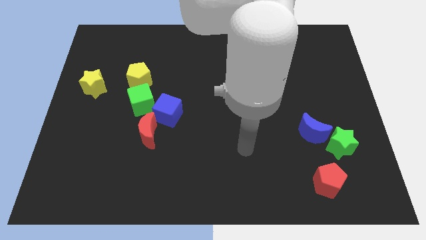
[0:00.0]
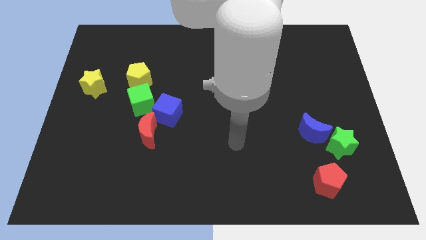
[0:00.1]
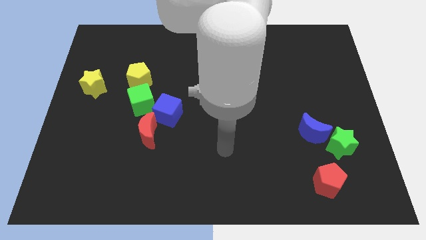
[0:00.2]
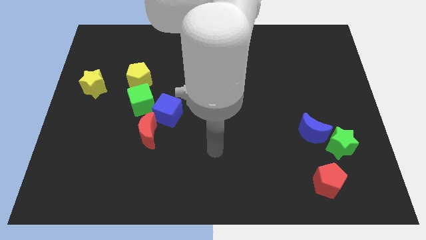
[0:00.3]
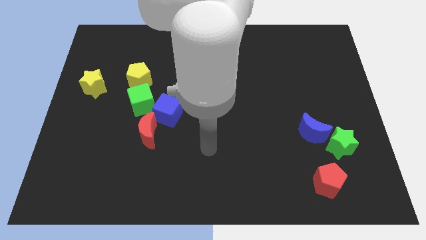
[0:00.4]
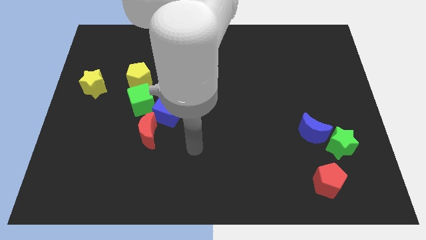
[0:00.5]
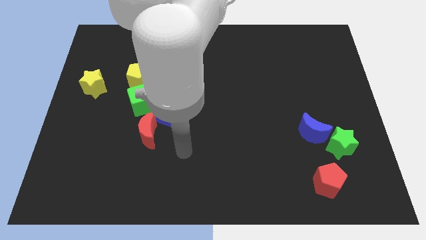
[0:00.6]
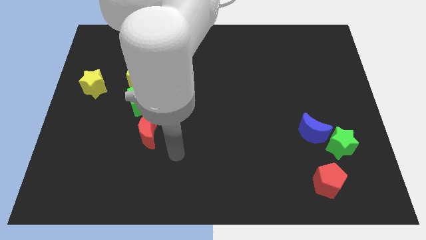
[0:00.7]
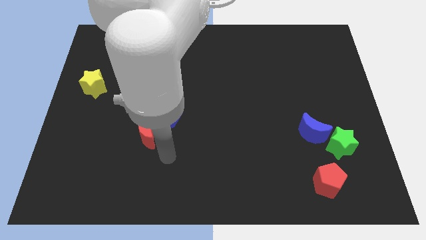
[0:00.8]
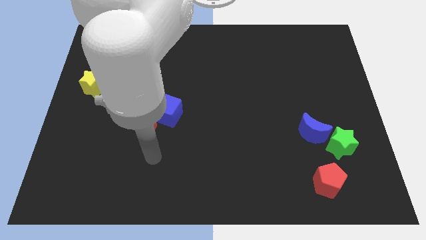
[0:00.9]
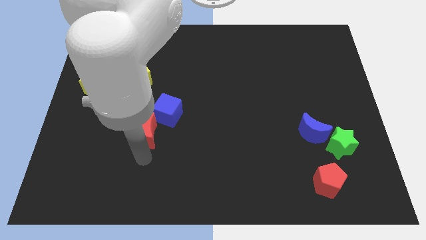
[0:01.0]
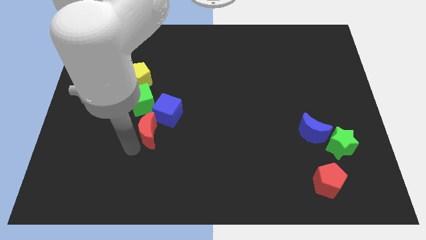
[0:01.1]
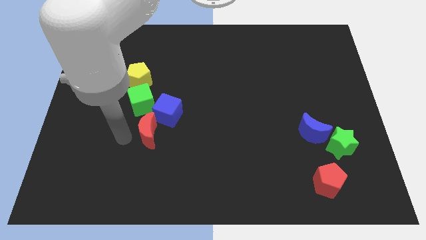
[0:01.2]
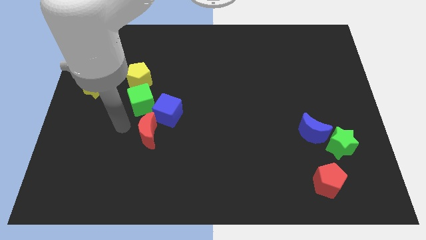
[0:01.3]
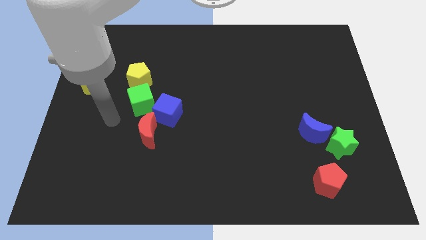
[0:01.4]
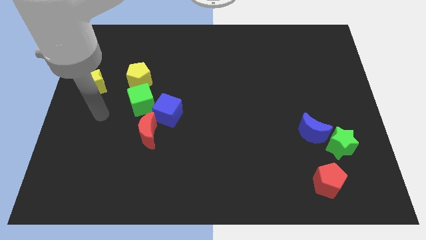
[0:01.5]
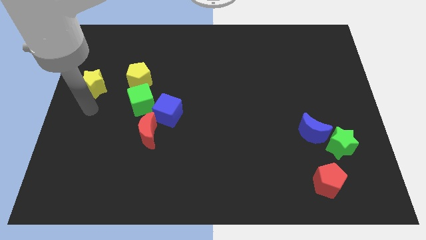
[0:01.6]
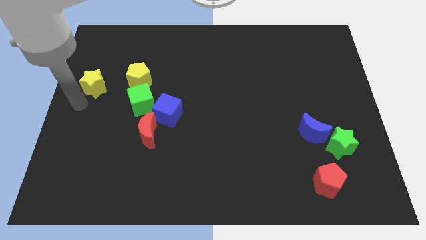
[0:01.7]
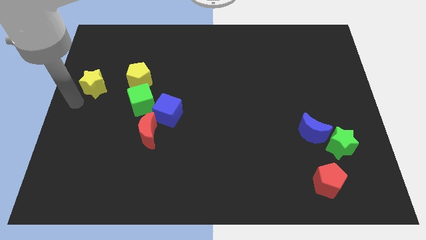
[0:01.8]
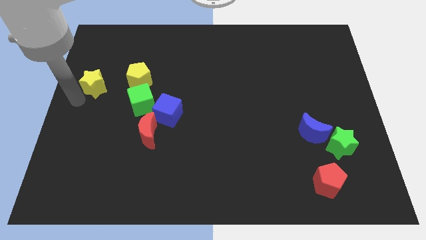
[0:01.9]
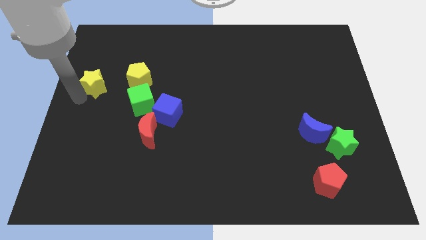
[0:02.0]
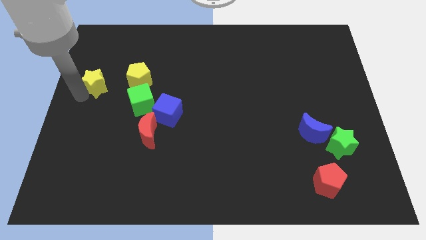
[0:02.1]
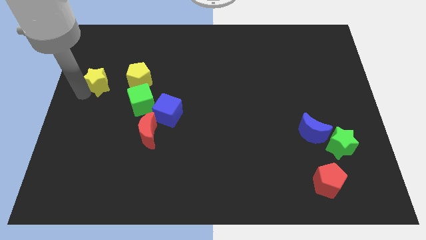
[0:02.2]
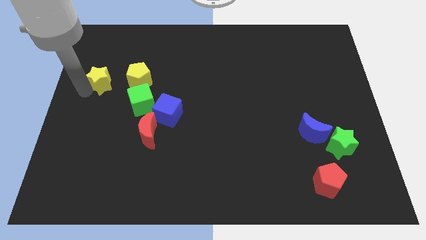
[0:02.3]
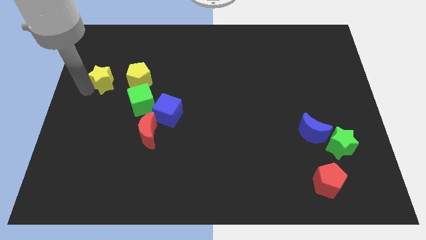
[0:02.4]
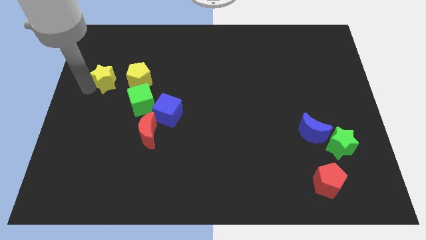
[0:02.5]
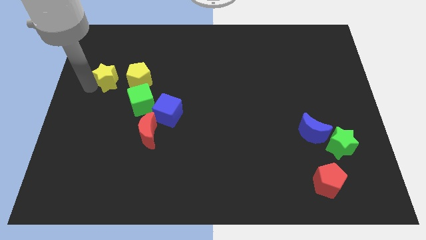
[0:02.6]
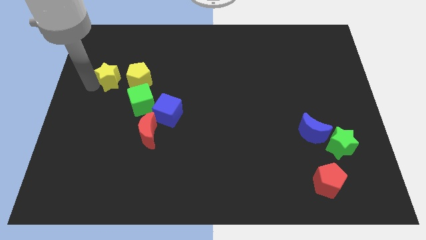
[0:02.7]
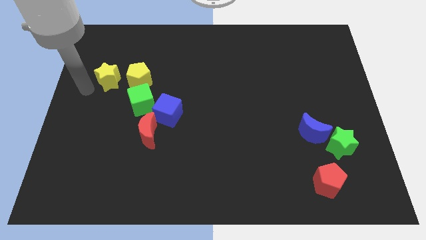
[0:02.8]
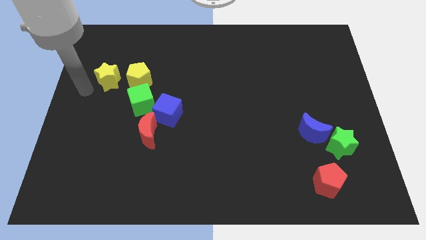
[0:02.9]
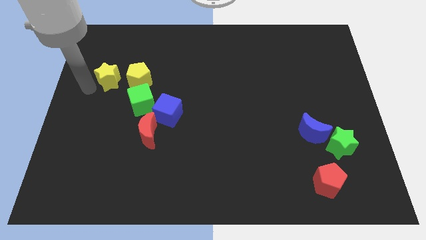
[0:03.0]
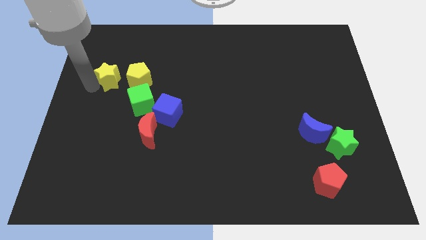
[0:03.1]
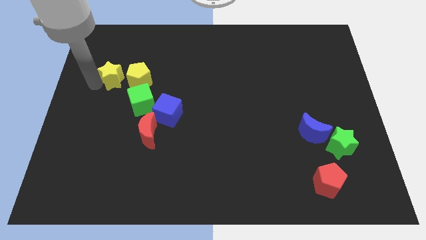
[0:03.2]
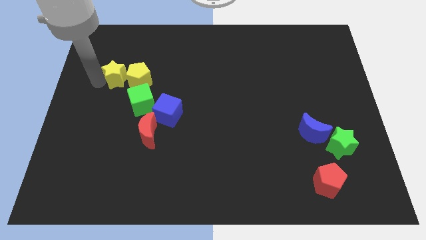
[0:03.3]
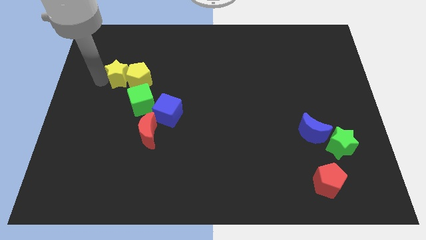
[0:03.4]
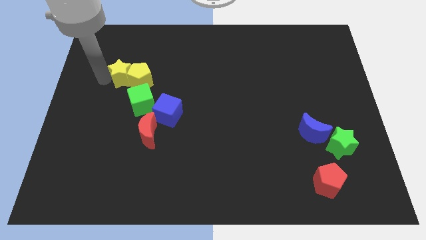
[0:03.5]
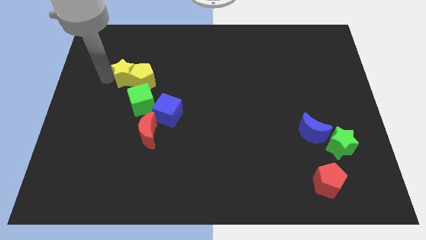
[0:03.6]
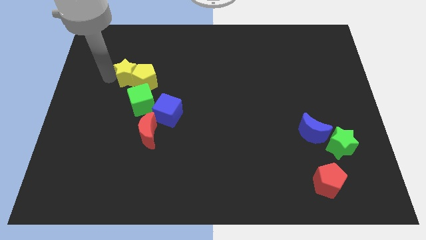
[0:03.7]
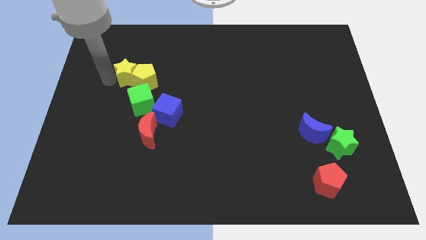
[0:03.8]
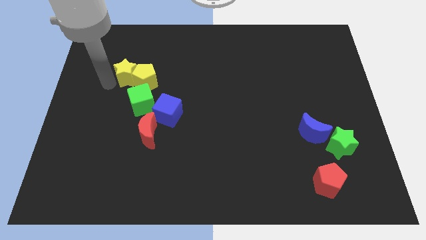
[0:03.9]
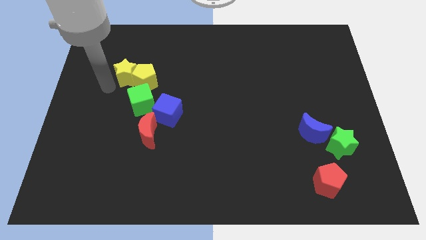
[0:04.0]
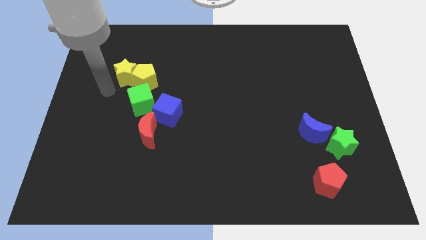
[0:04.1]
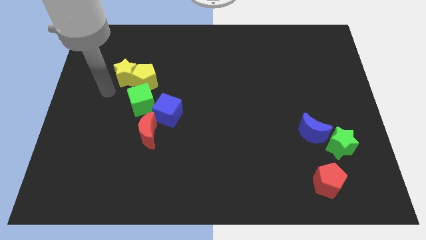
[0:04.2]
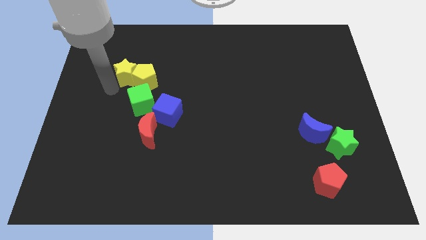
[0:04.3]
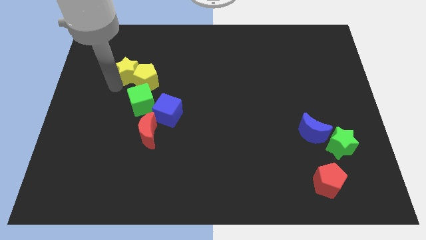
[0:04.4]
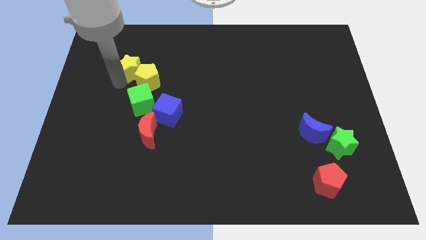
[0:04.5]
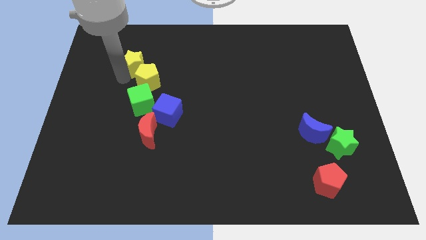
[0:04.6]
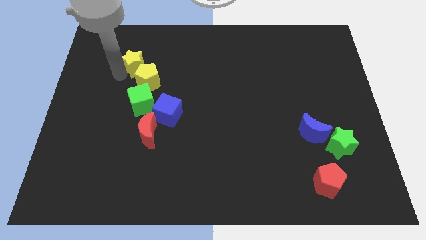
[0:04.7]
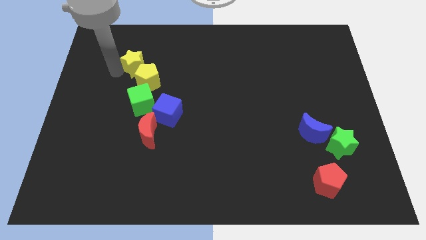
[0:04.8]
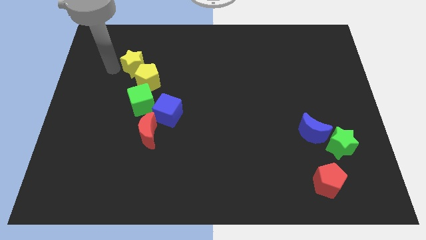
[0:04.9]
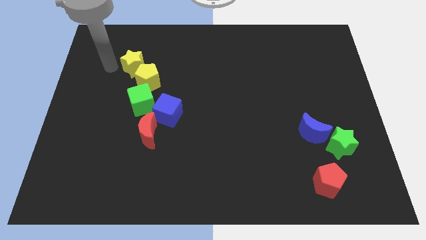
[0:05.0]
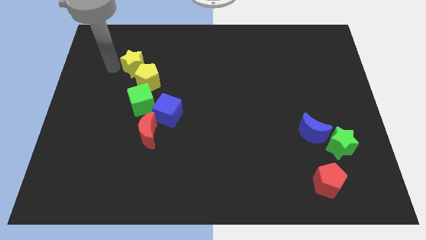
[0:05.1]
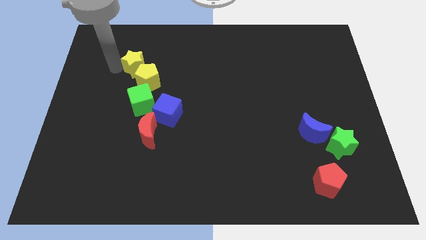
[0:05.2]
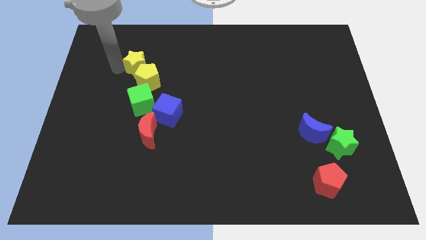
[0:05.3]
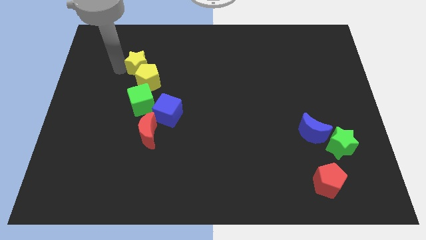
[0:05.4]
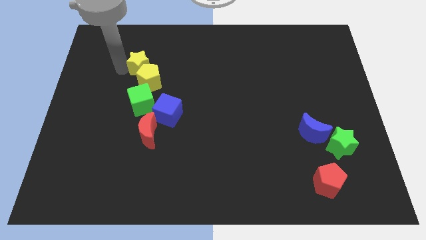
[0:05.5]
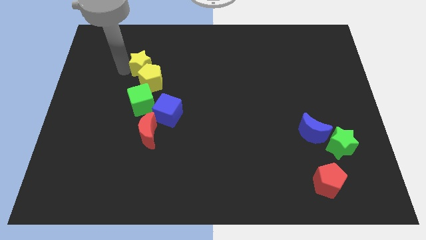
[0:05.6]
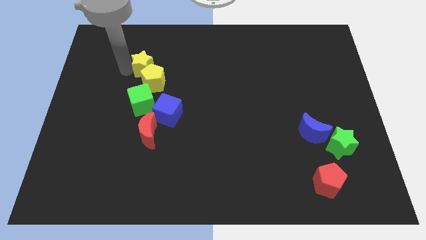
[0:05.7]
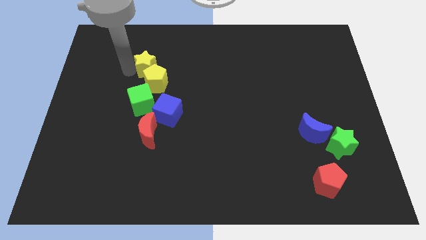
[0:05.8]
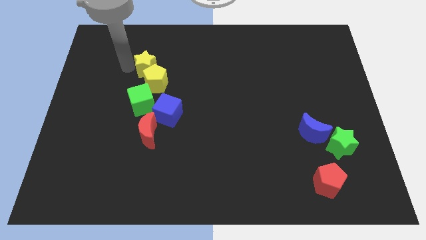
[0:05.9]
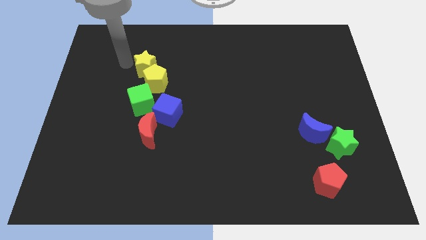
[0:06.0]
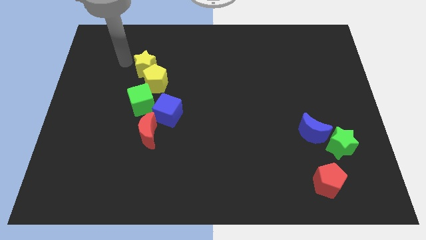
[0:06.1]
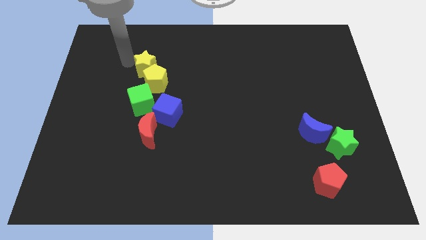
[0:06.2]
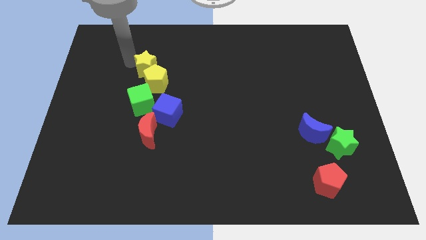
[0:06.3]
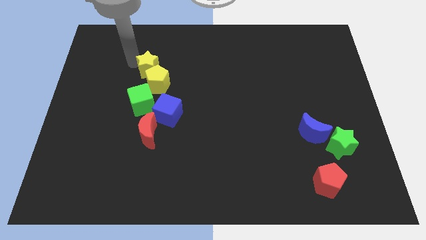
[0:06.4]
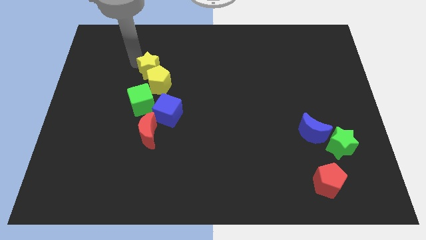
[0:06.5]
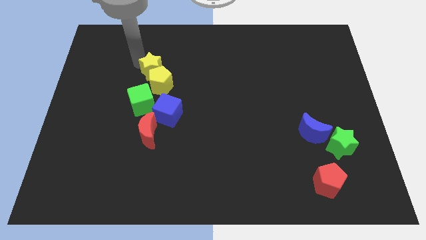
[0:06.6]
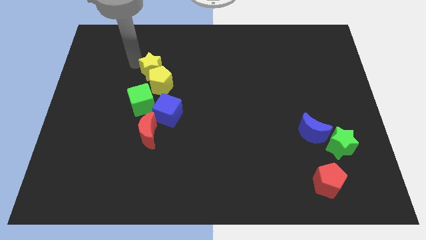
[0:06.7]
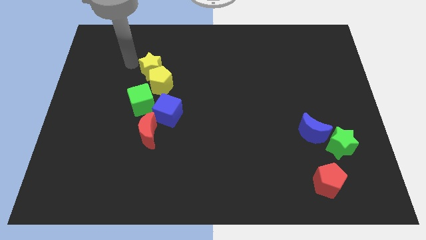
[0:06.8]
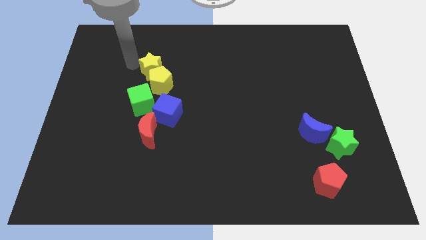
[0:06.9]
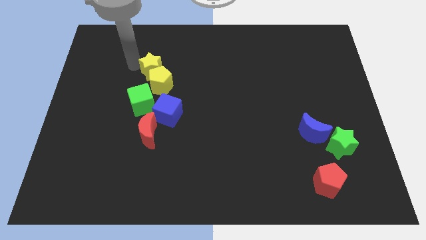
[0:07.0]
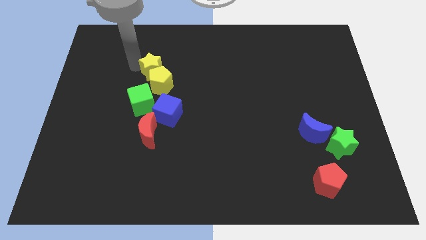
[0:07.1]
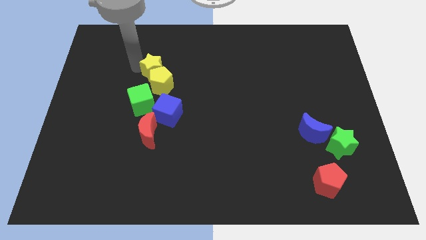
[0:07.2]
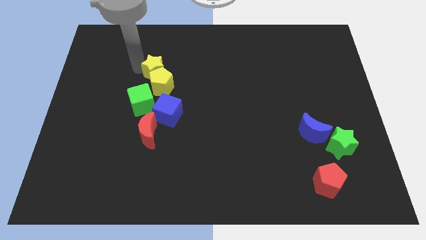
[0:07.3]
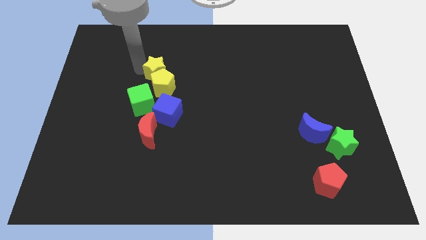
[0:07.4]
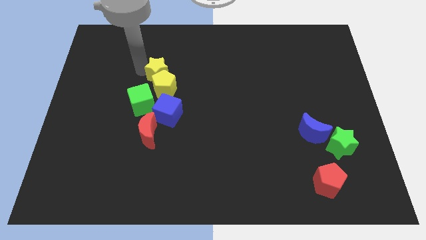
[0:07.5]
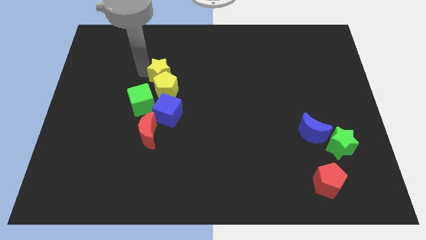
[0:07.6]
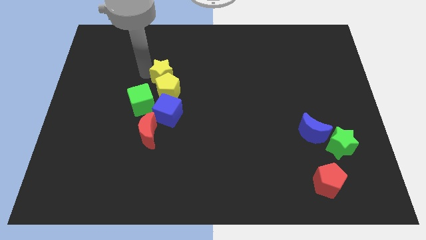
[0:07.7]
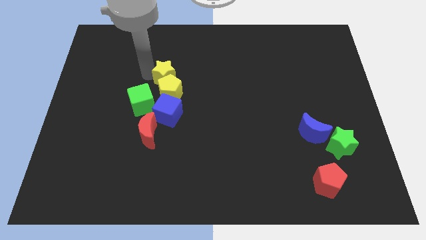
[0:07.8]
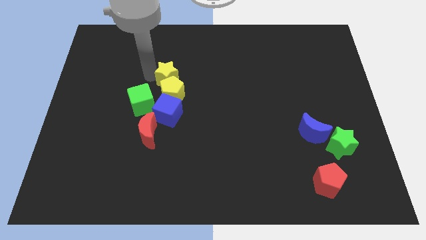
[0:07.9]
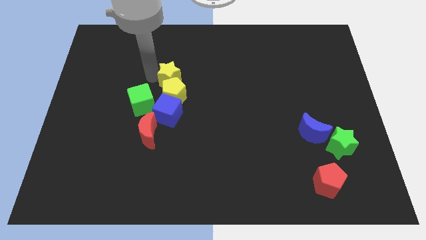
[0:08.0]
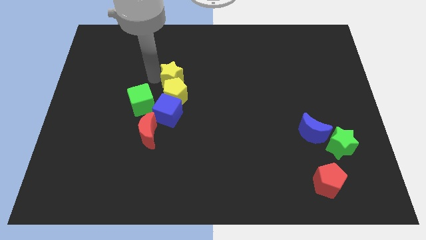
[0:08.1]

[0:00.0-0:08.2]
push the yellow star to the center
